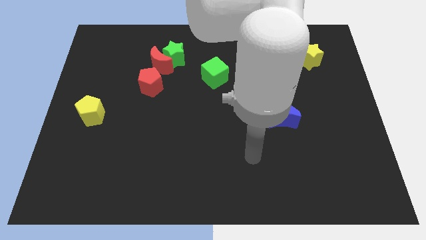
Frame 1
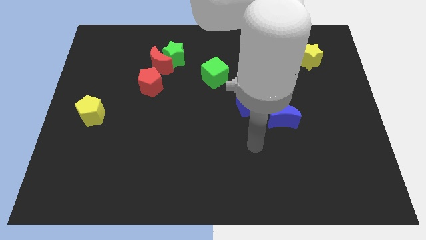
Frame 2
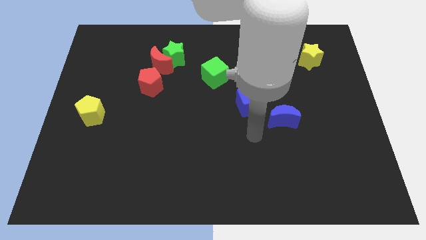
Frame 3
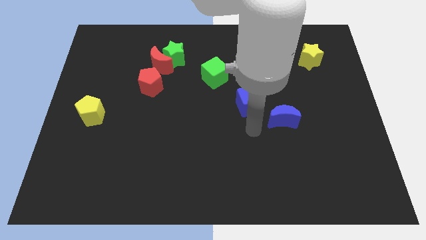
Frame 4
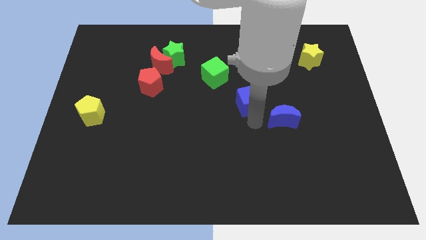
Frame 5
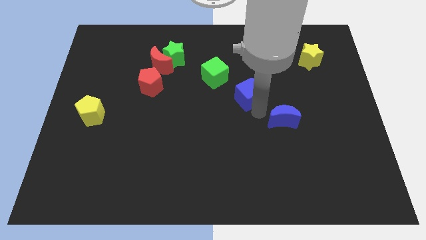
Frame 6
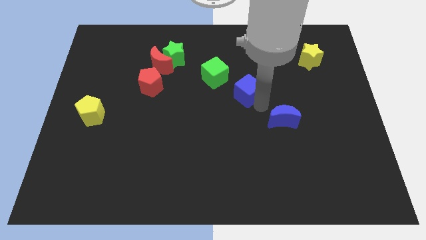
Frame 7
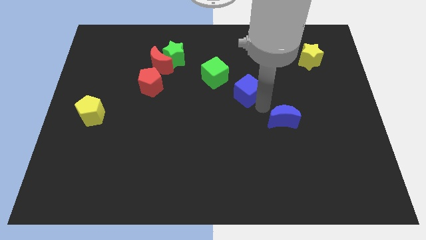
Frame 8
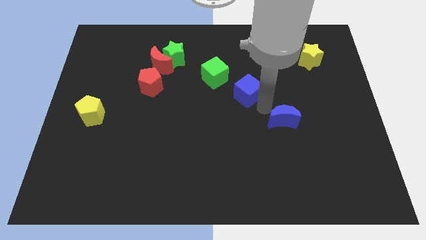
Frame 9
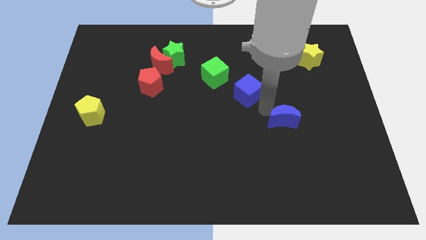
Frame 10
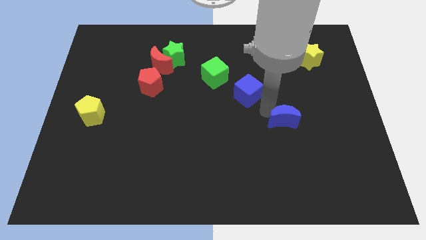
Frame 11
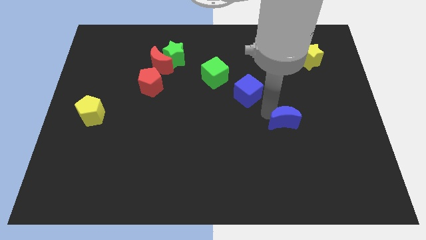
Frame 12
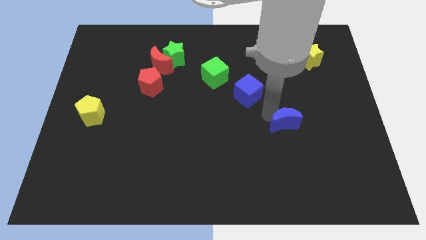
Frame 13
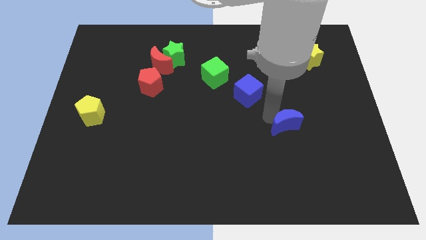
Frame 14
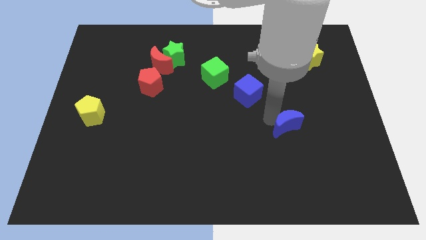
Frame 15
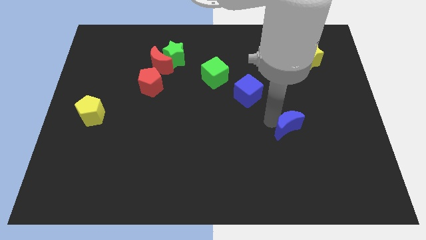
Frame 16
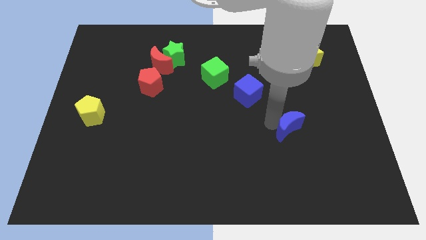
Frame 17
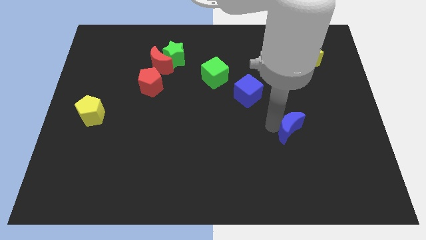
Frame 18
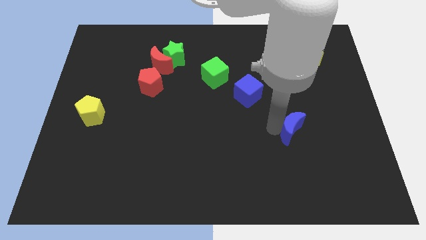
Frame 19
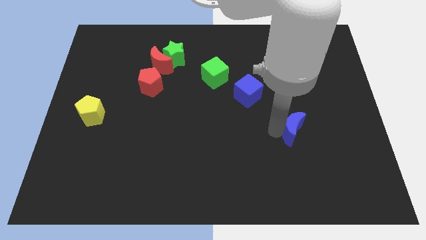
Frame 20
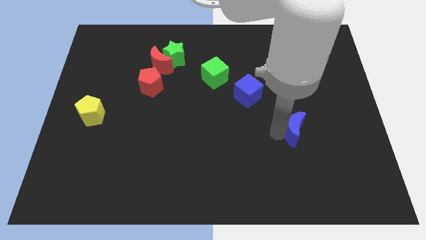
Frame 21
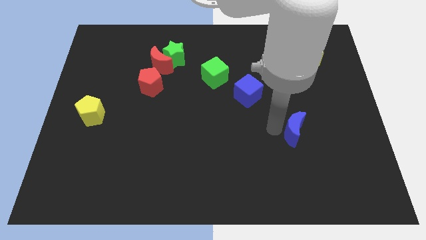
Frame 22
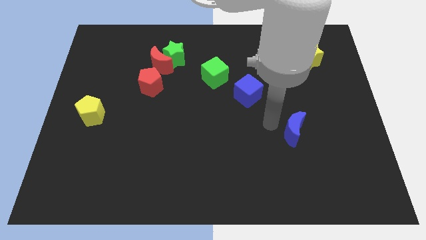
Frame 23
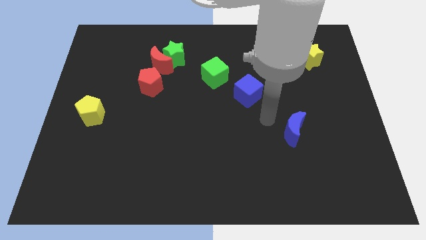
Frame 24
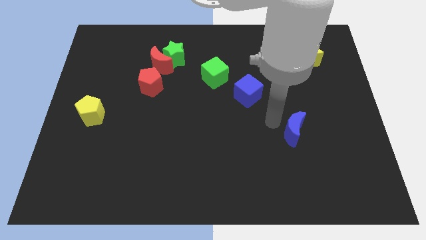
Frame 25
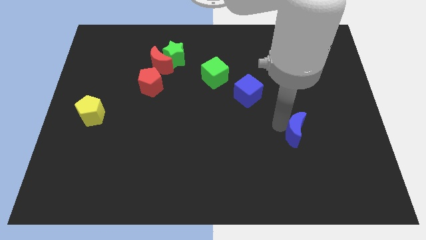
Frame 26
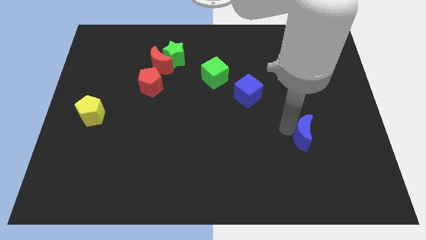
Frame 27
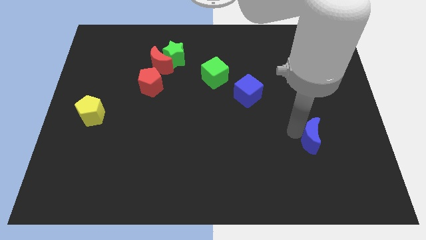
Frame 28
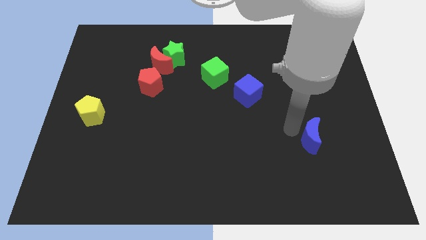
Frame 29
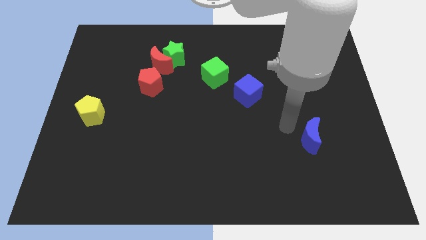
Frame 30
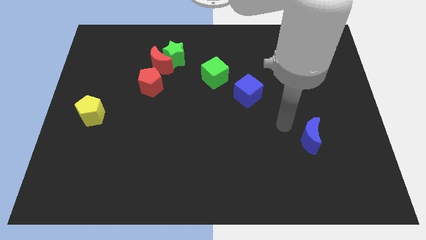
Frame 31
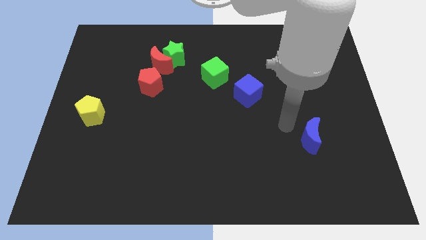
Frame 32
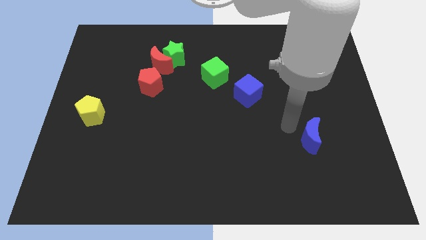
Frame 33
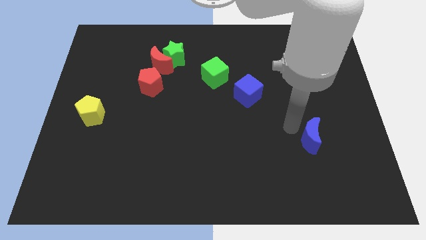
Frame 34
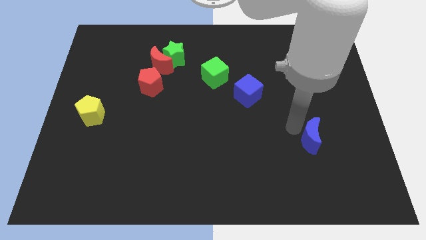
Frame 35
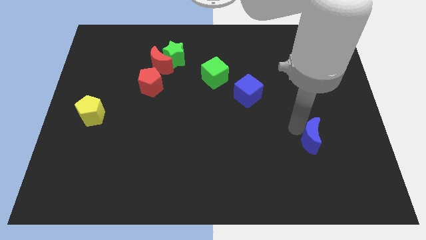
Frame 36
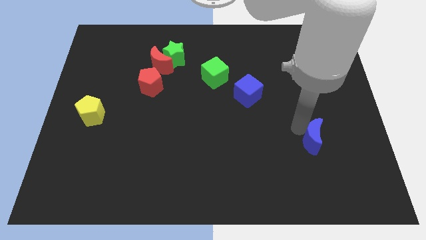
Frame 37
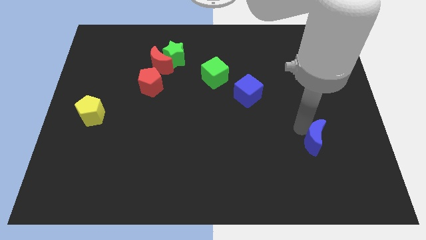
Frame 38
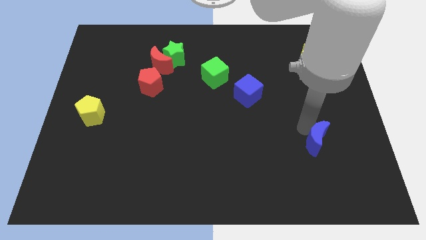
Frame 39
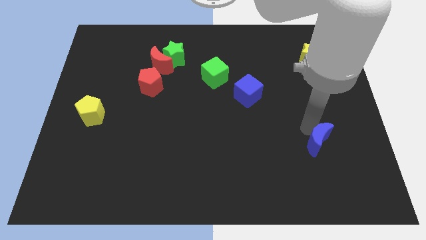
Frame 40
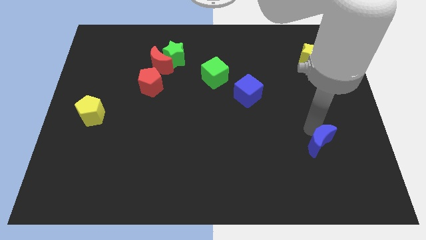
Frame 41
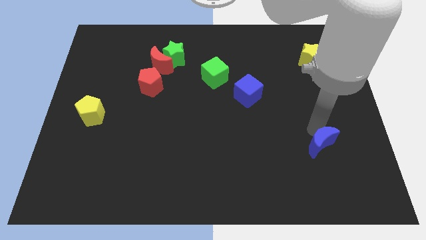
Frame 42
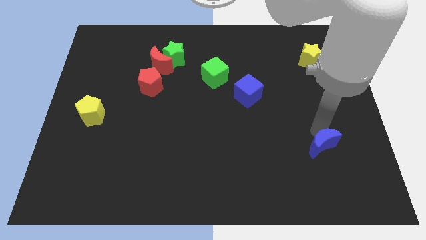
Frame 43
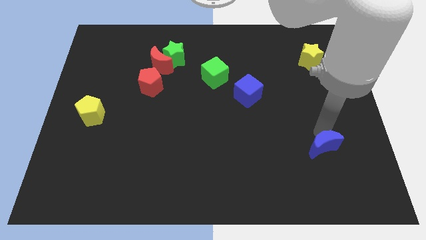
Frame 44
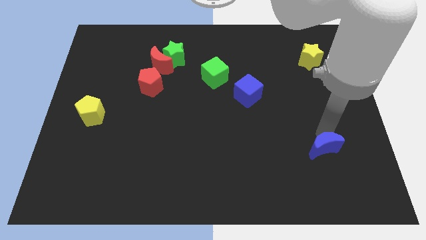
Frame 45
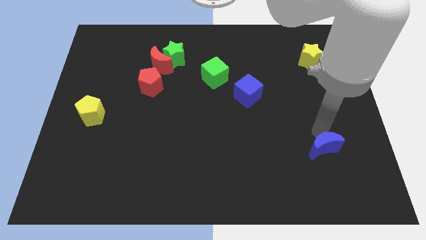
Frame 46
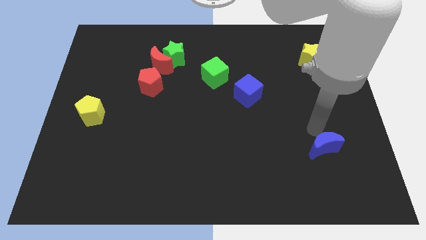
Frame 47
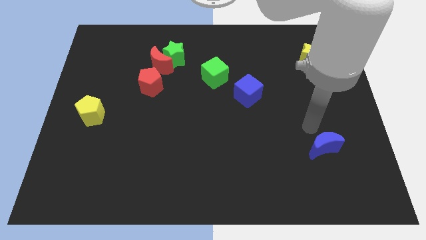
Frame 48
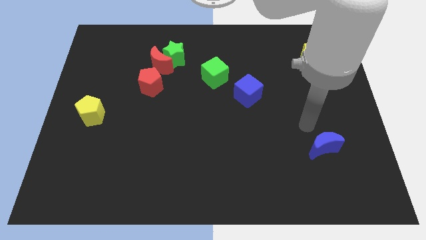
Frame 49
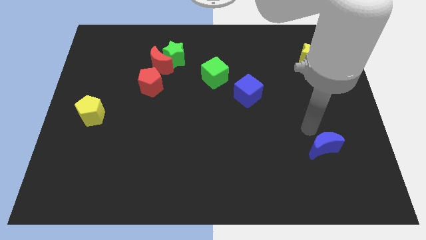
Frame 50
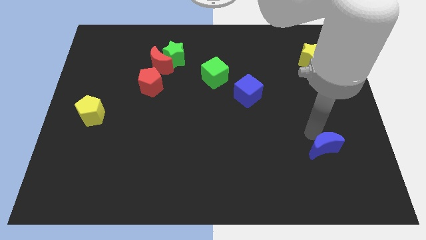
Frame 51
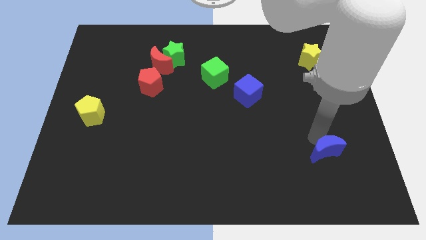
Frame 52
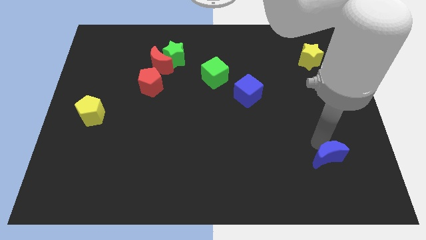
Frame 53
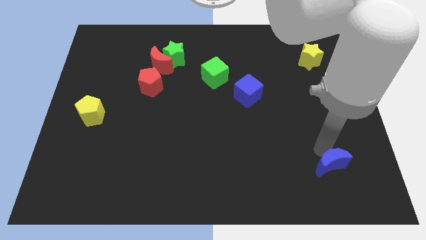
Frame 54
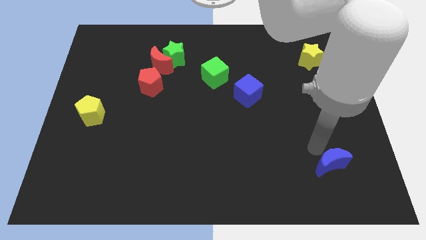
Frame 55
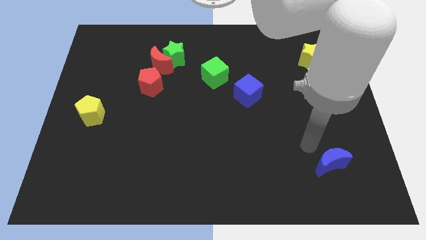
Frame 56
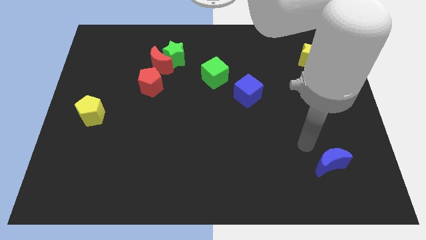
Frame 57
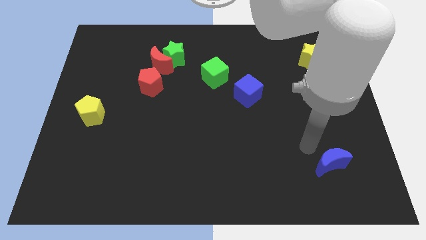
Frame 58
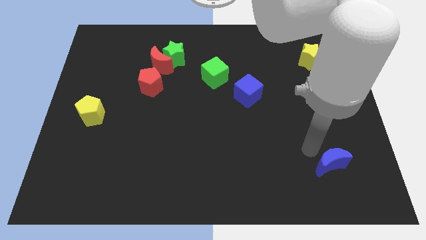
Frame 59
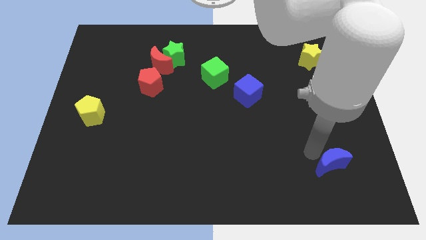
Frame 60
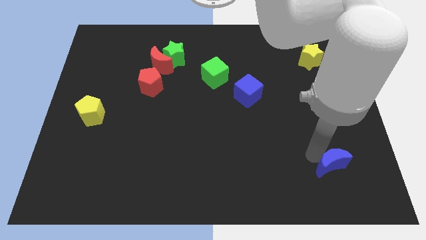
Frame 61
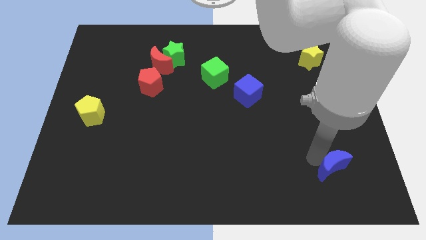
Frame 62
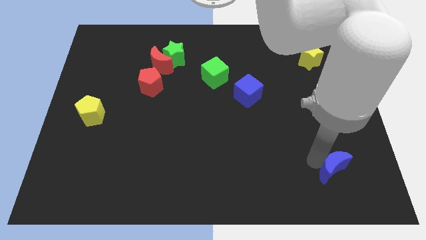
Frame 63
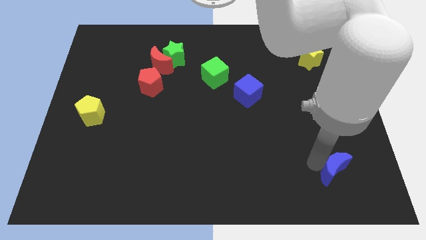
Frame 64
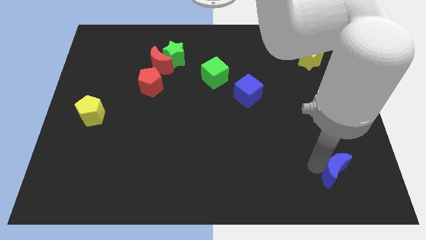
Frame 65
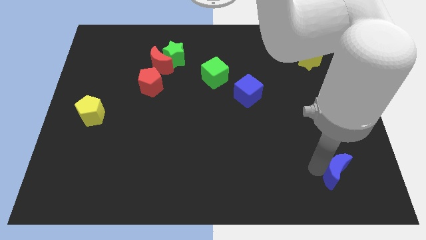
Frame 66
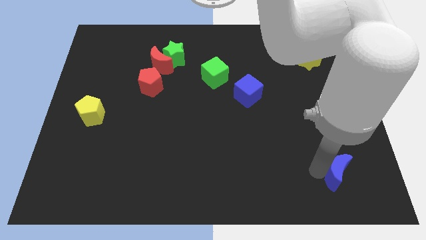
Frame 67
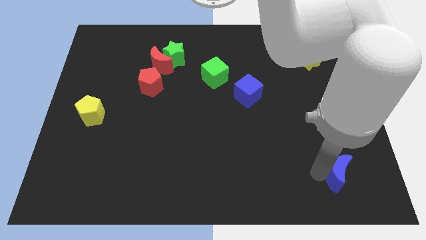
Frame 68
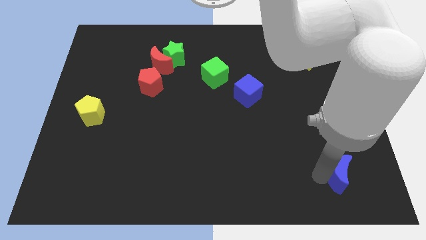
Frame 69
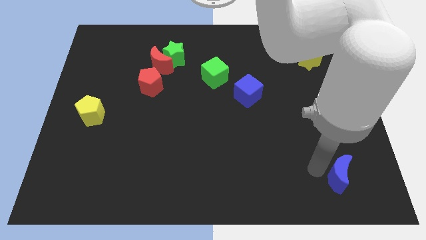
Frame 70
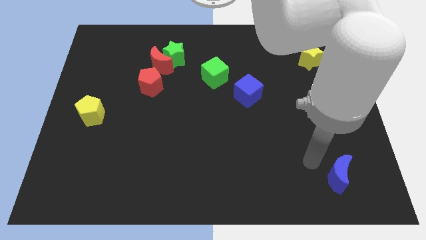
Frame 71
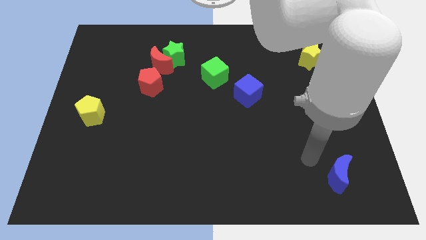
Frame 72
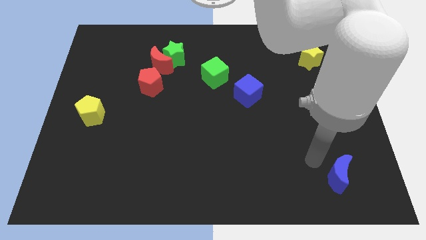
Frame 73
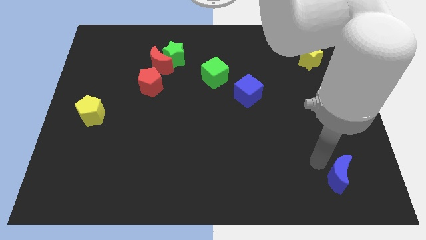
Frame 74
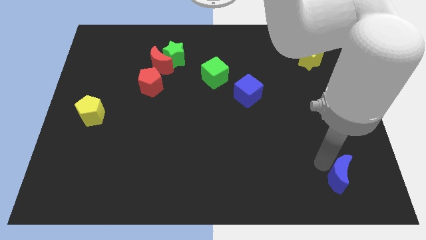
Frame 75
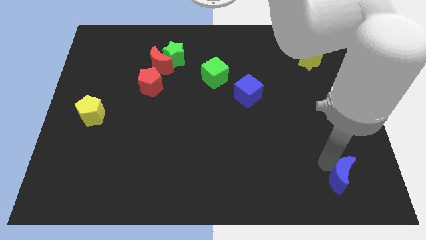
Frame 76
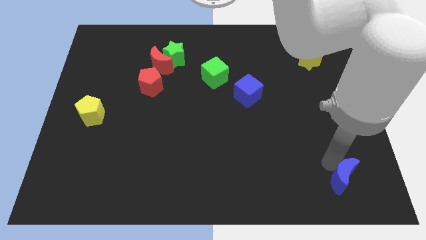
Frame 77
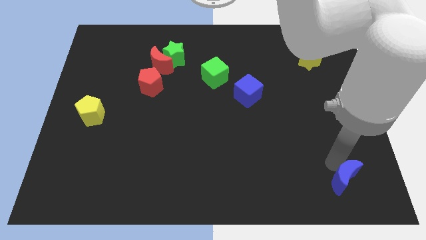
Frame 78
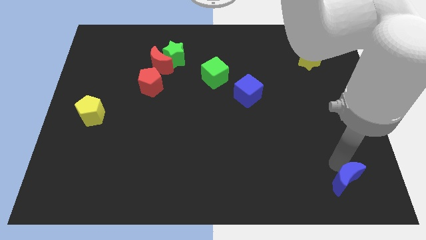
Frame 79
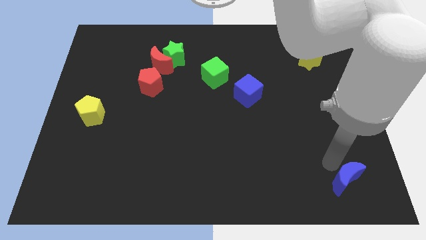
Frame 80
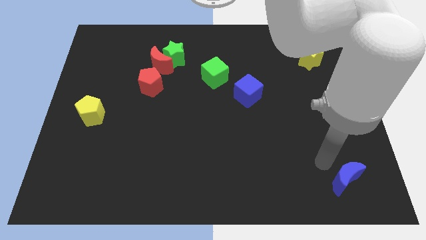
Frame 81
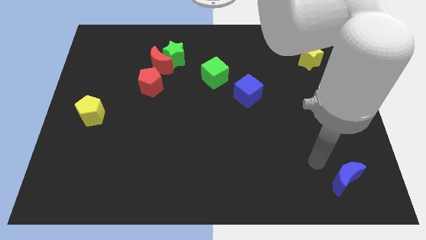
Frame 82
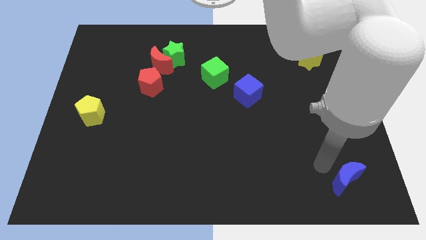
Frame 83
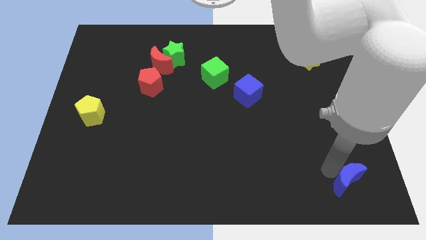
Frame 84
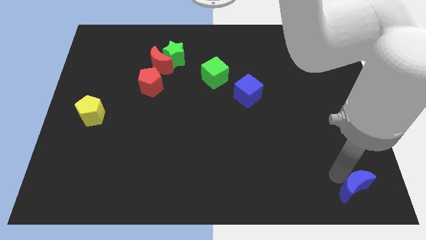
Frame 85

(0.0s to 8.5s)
put the blue moon to the bottom right
